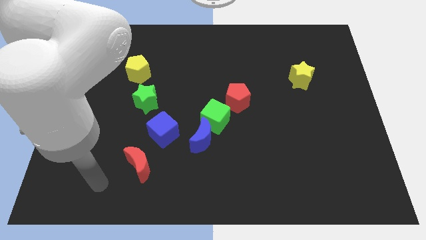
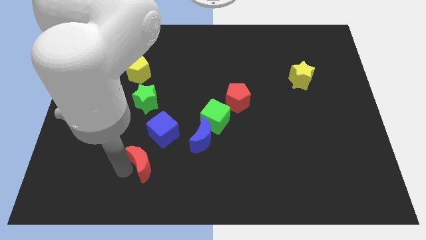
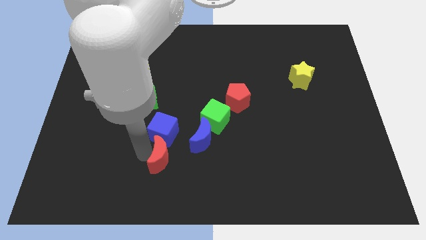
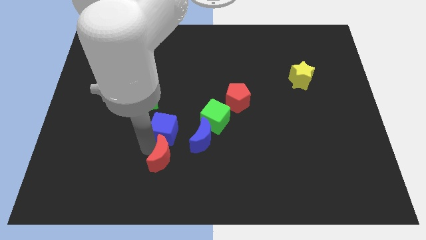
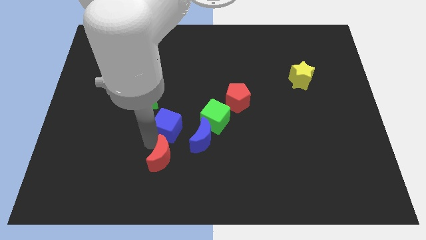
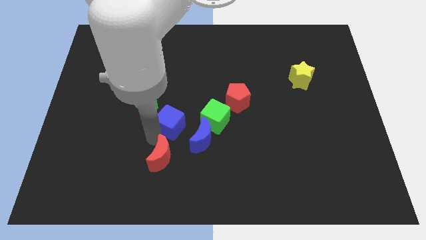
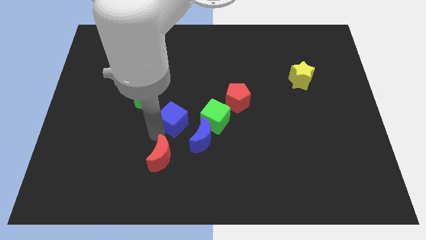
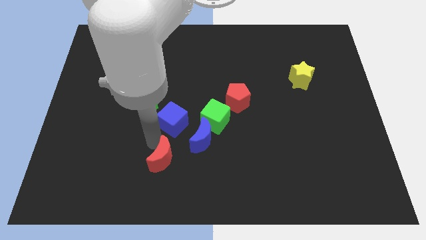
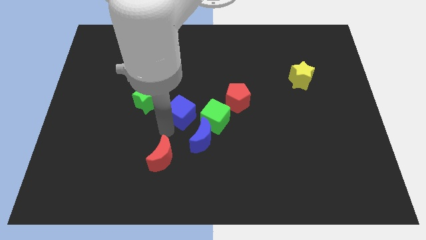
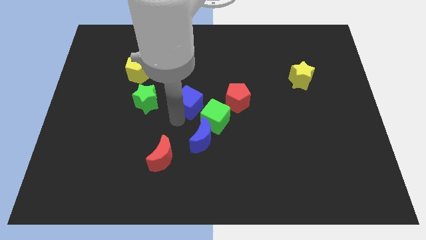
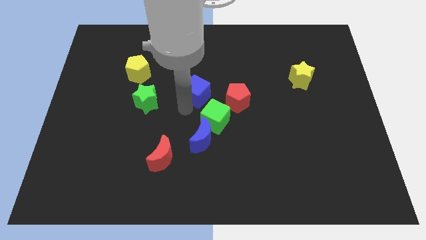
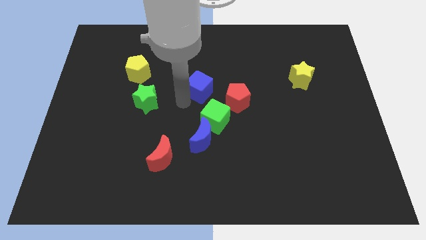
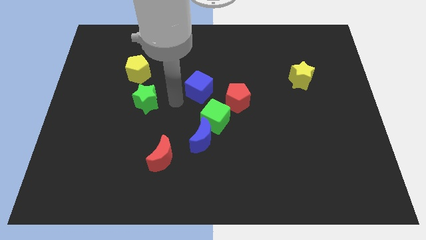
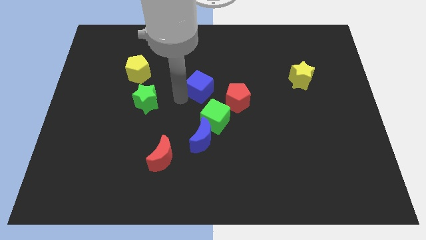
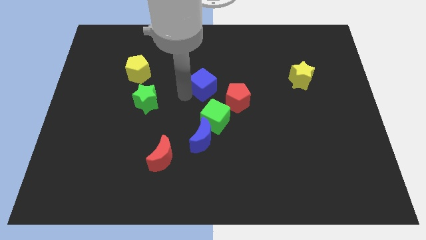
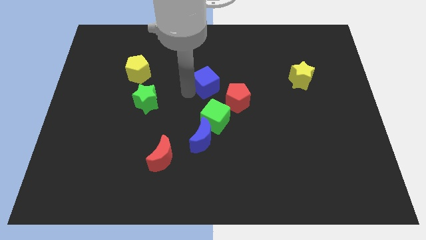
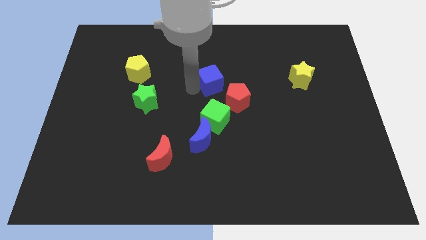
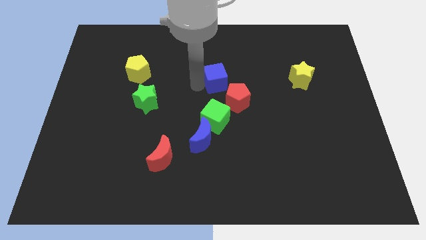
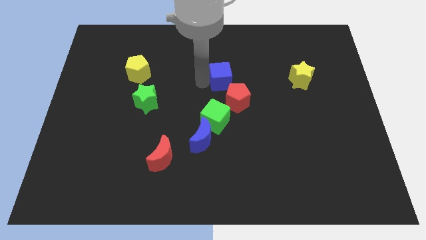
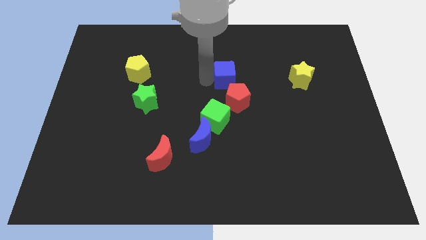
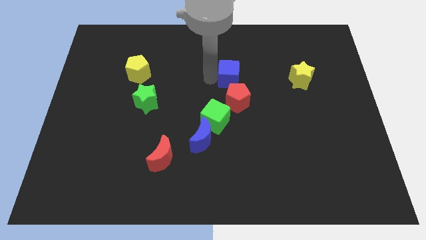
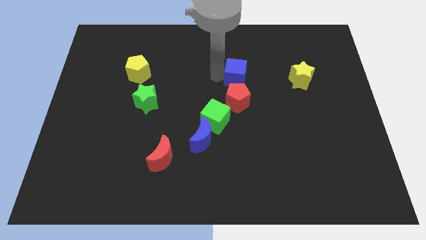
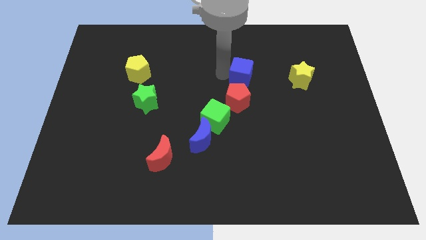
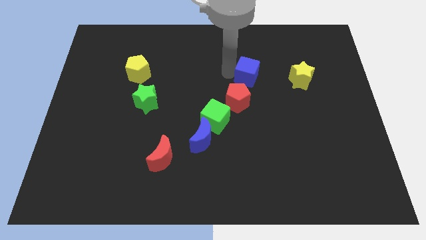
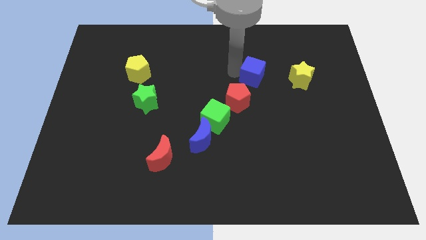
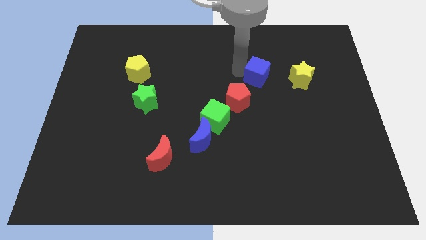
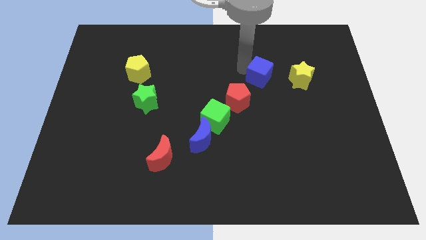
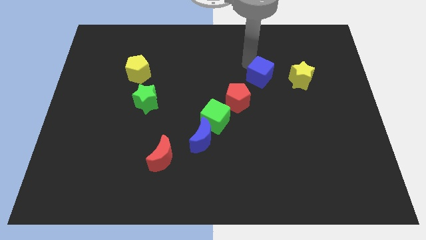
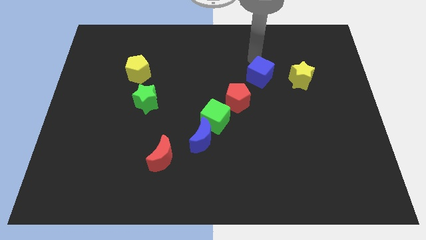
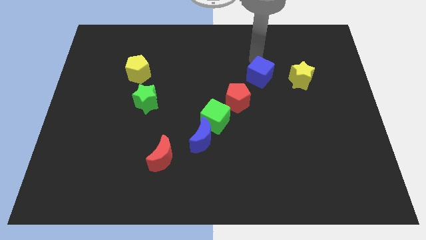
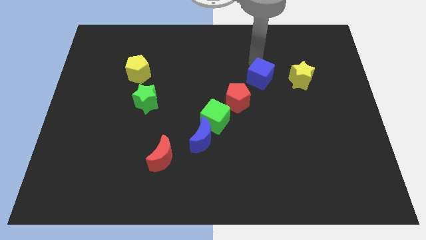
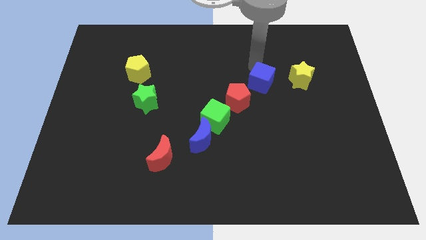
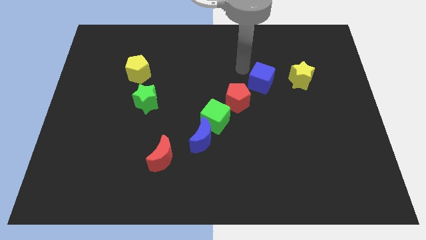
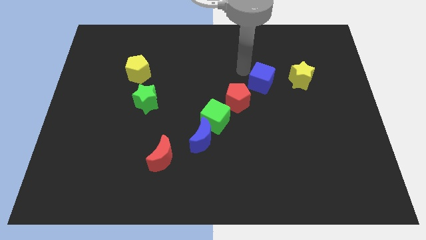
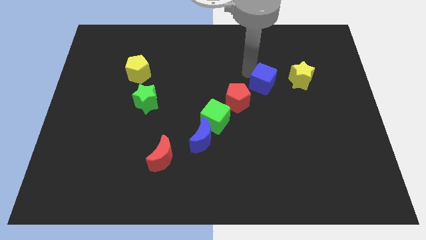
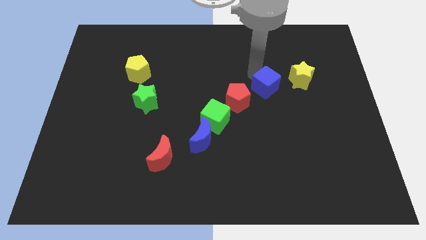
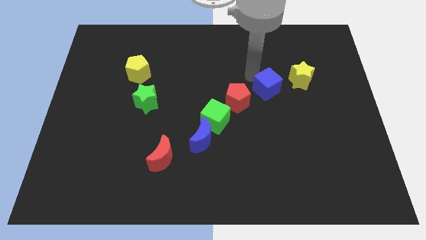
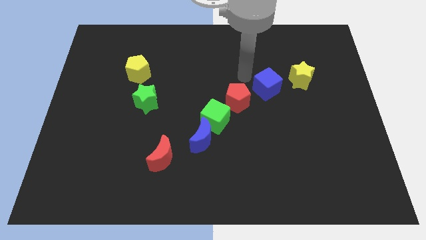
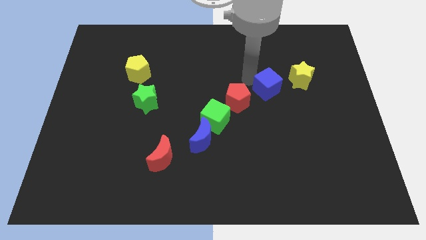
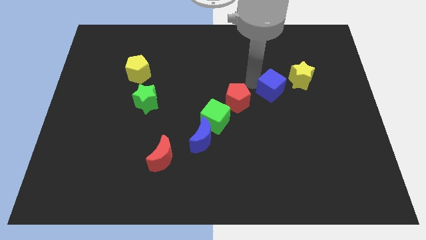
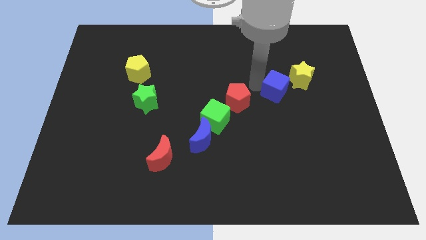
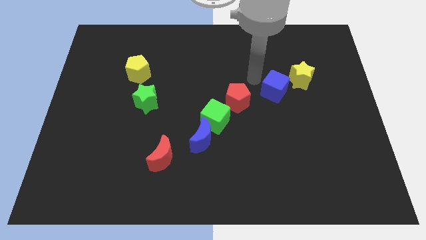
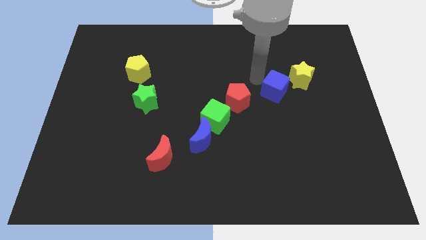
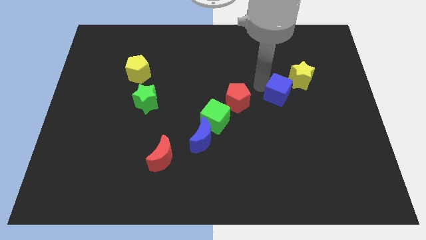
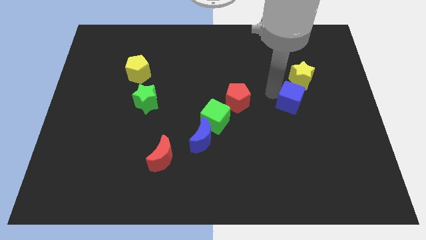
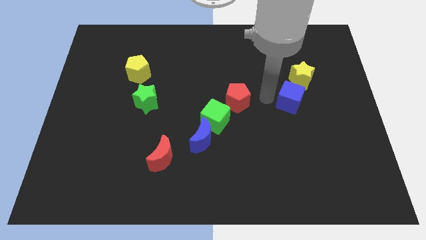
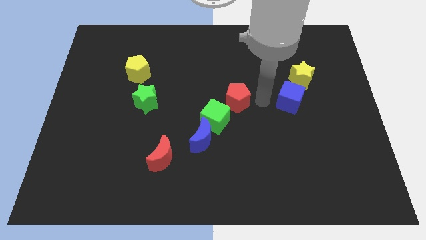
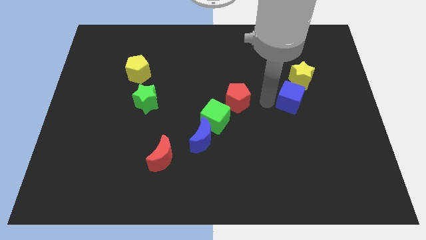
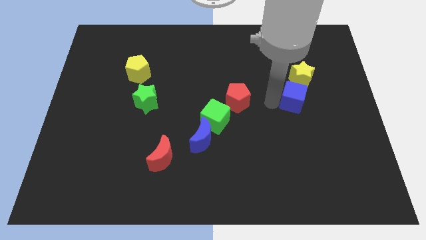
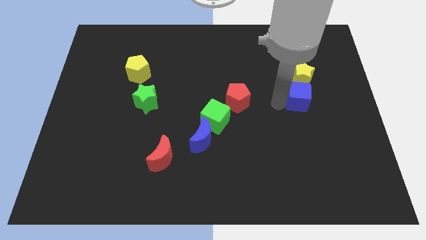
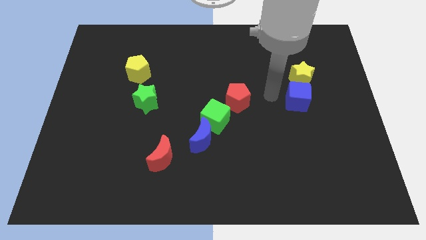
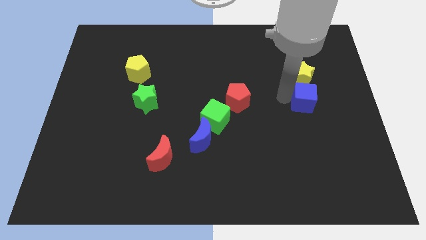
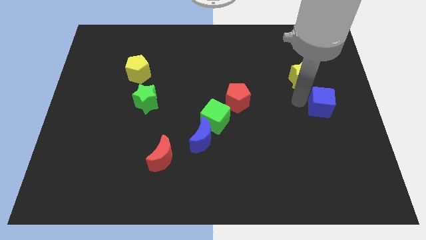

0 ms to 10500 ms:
put the blue cube to the center right

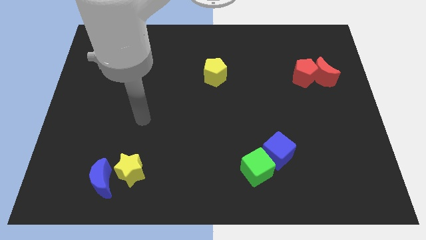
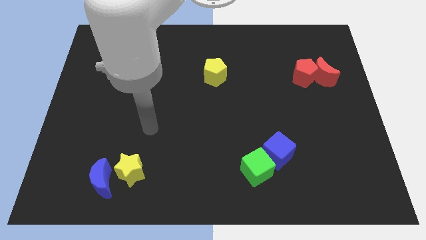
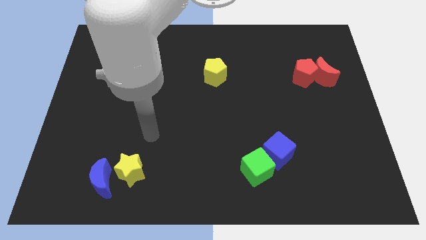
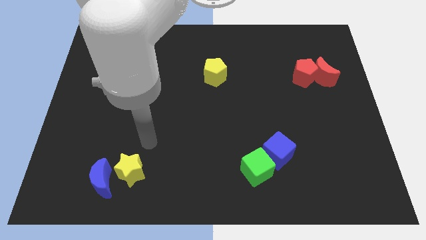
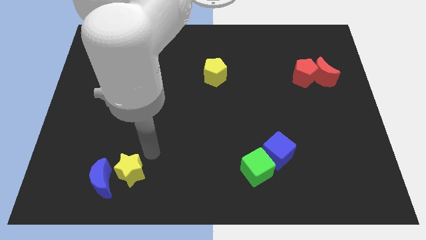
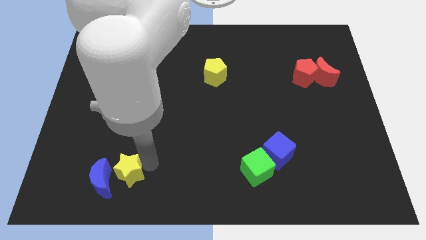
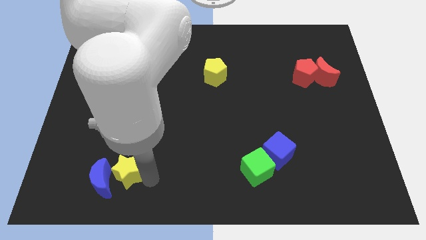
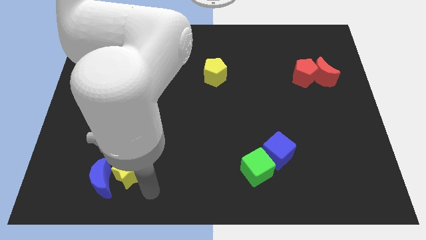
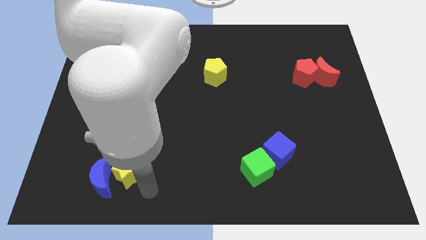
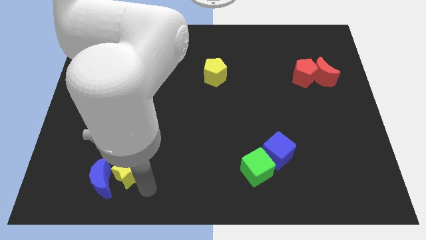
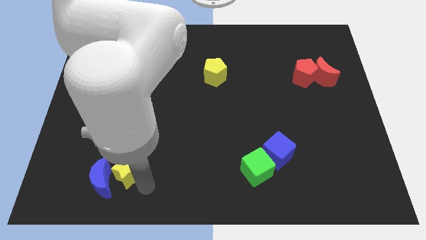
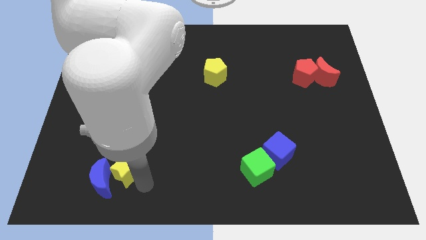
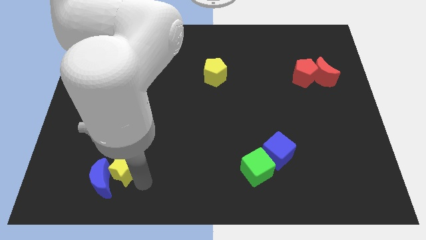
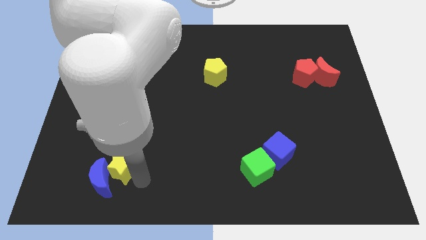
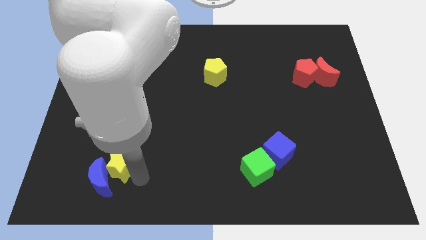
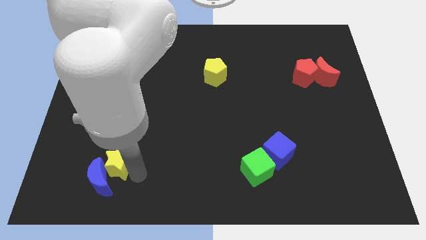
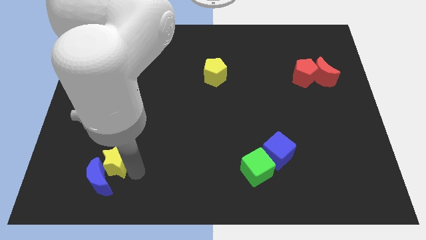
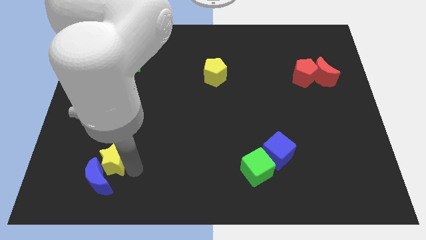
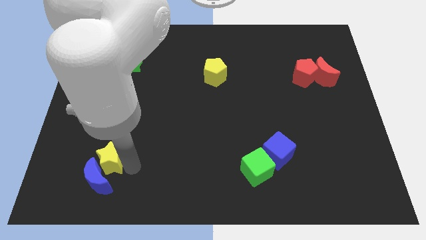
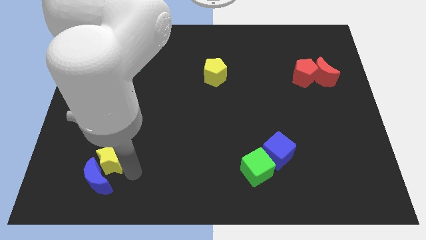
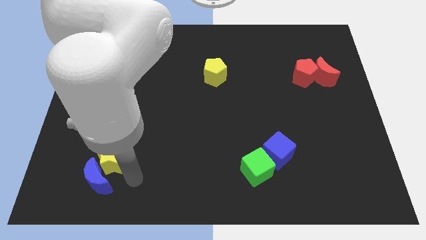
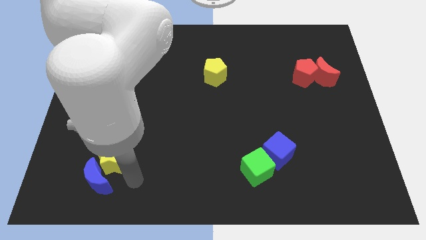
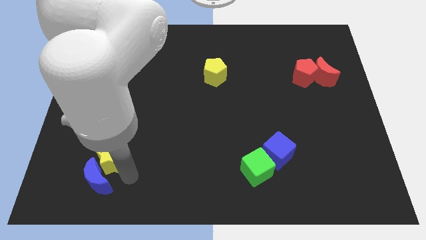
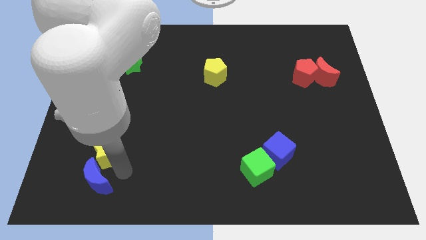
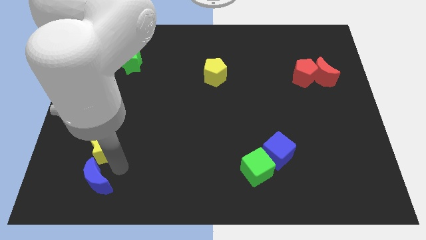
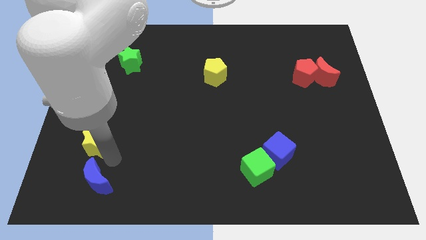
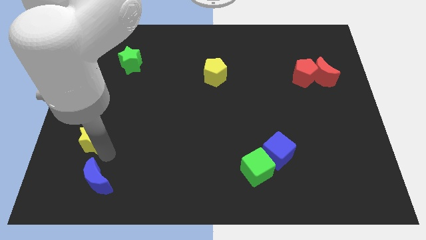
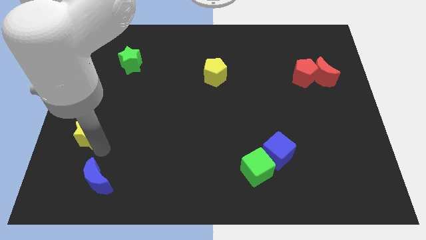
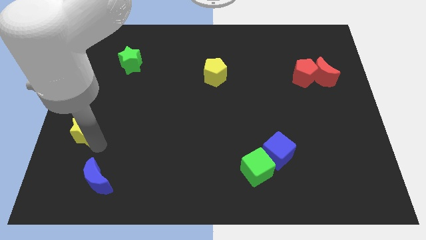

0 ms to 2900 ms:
put the yellow star to the left side of the board
